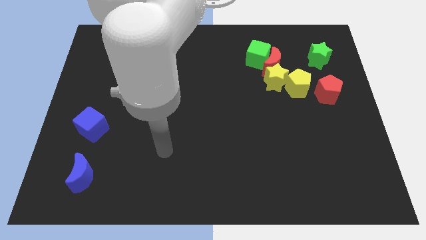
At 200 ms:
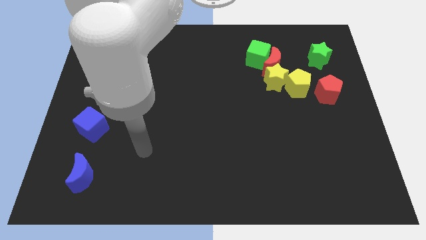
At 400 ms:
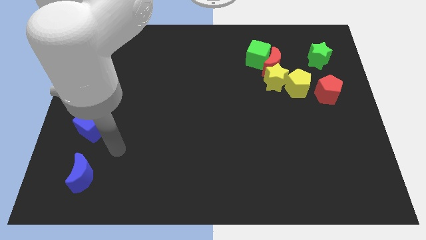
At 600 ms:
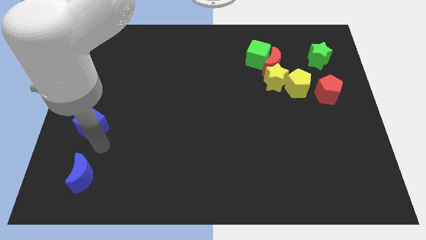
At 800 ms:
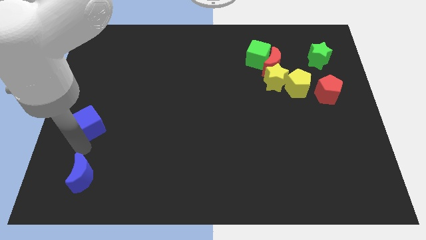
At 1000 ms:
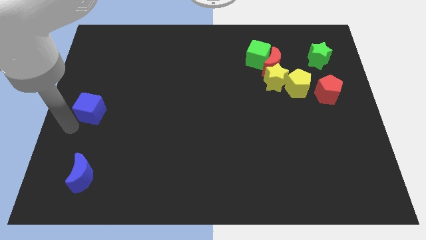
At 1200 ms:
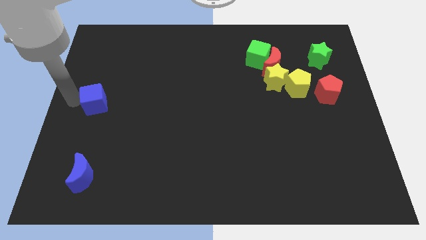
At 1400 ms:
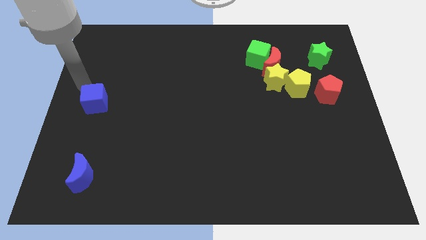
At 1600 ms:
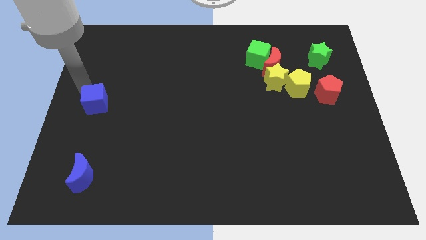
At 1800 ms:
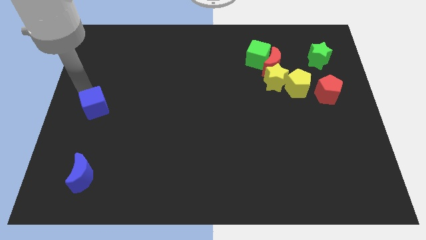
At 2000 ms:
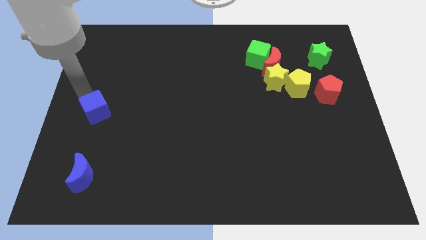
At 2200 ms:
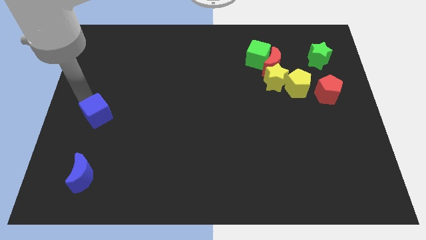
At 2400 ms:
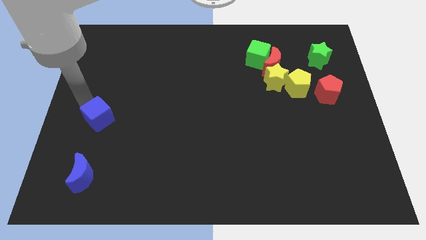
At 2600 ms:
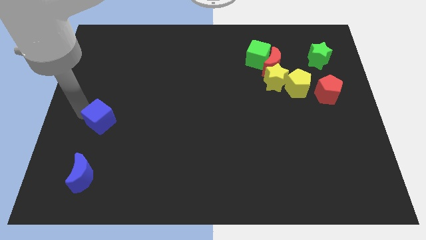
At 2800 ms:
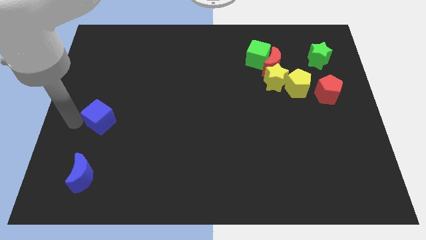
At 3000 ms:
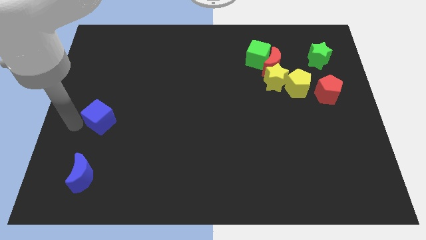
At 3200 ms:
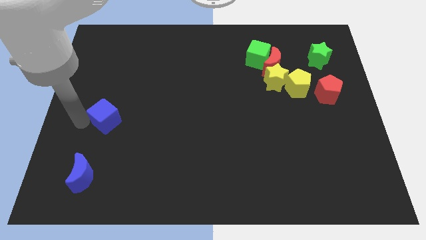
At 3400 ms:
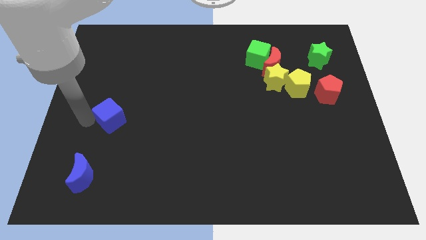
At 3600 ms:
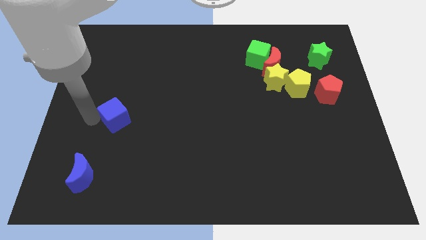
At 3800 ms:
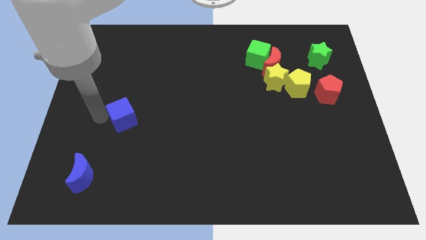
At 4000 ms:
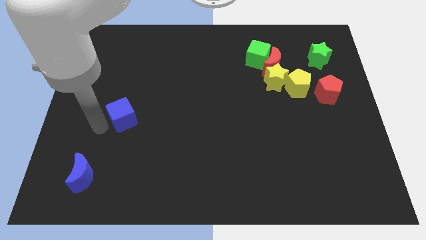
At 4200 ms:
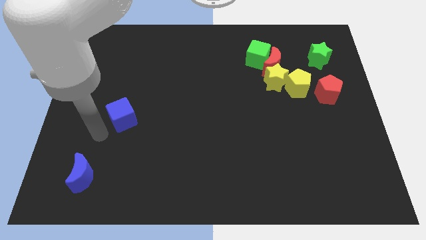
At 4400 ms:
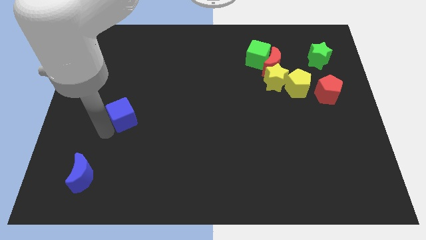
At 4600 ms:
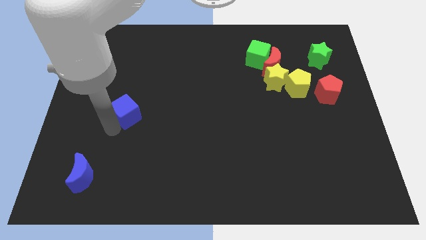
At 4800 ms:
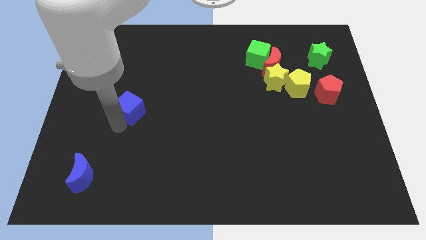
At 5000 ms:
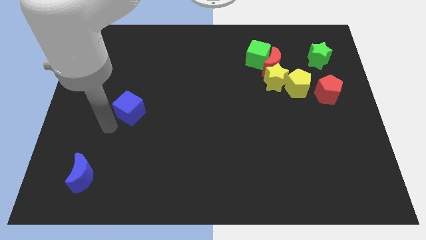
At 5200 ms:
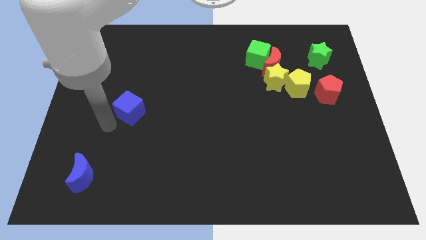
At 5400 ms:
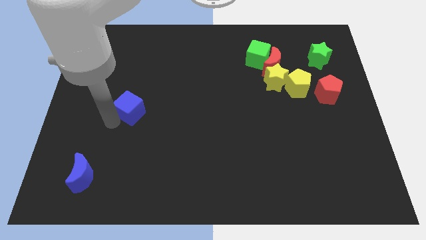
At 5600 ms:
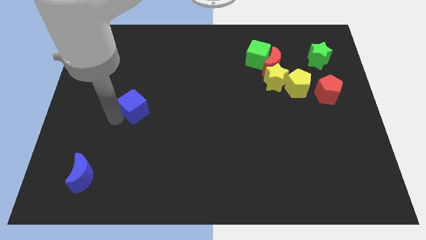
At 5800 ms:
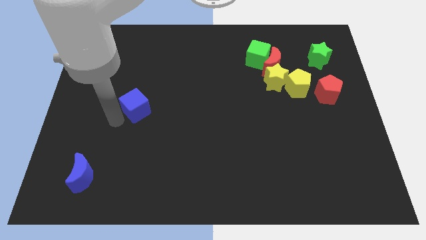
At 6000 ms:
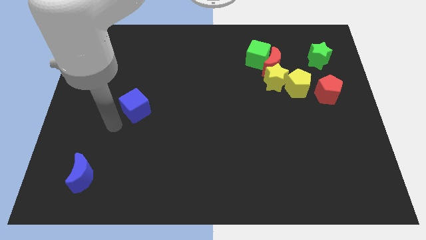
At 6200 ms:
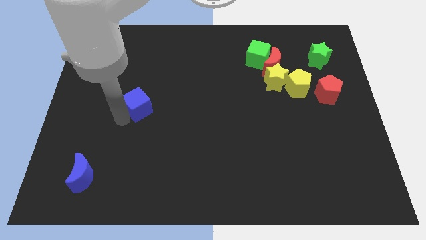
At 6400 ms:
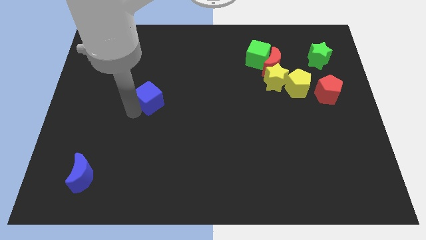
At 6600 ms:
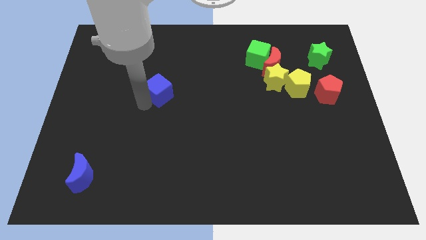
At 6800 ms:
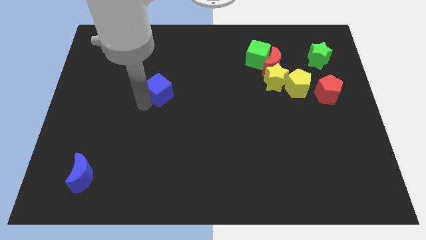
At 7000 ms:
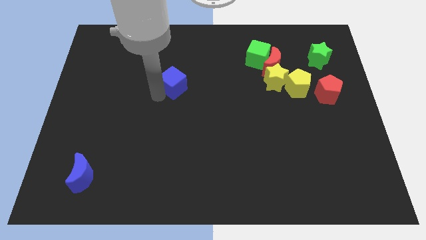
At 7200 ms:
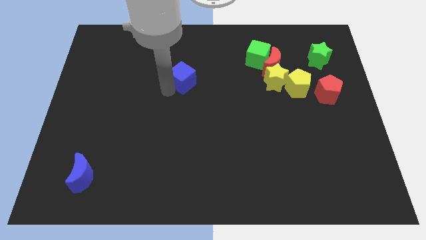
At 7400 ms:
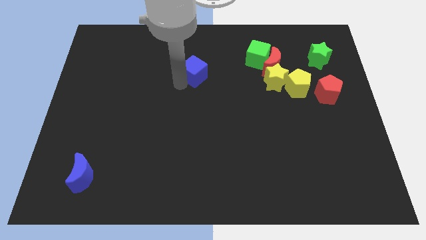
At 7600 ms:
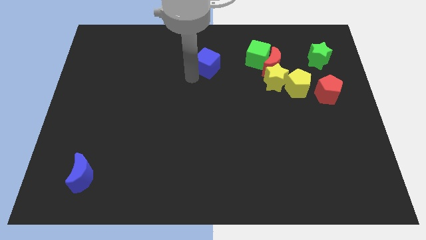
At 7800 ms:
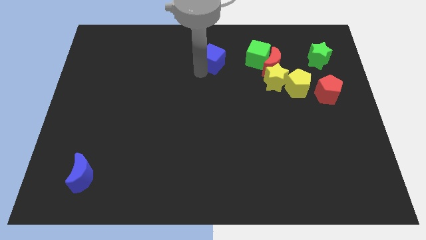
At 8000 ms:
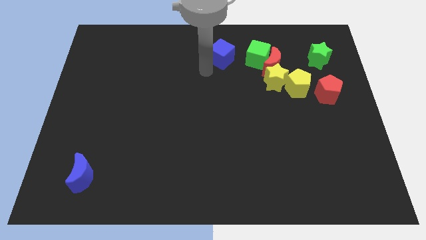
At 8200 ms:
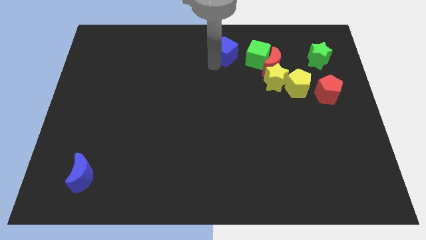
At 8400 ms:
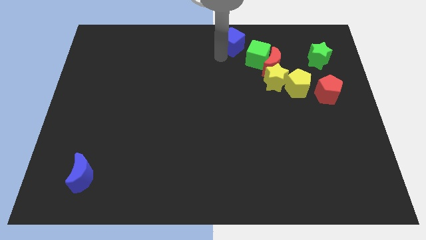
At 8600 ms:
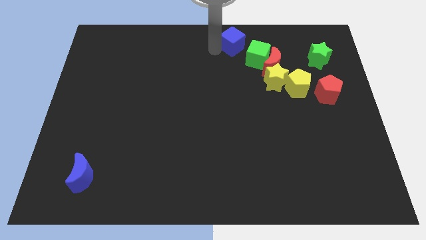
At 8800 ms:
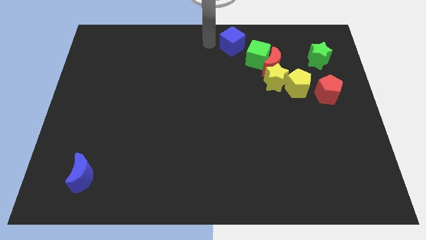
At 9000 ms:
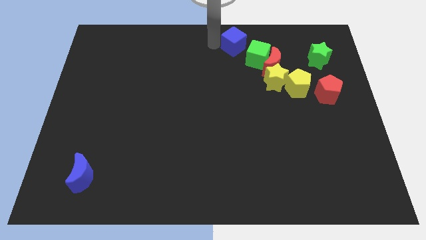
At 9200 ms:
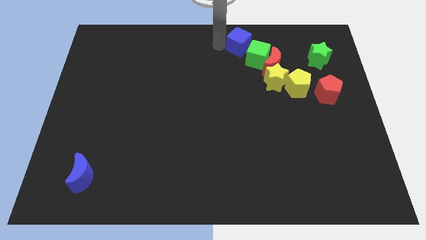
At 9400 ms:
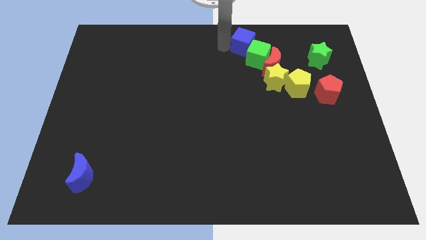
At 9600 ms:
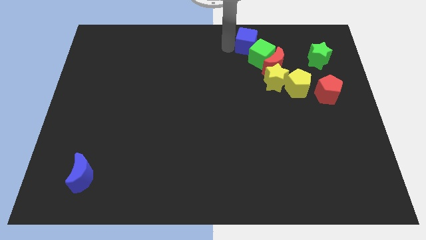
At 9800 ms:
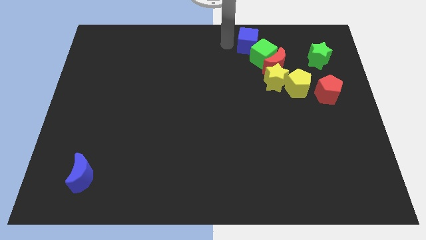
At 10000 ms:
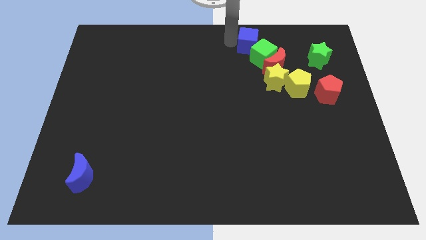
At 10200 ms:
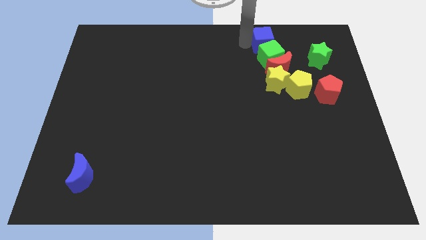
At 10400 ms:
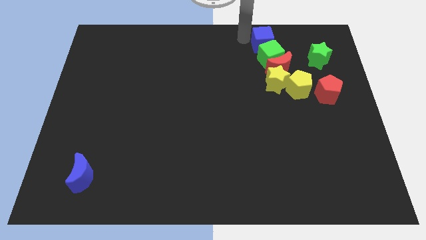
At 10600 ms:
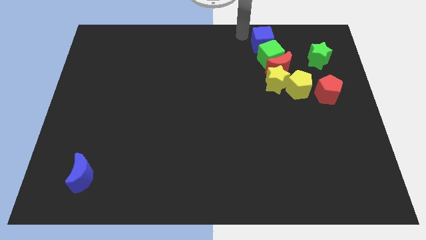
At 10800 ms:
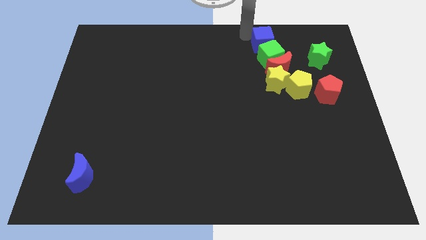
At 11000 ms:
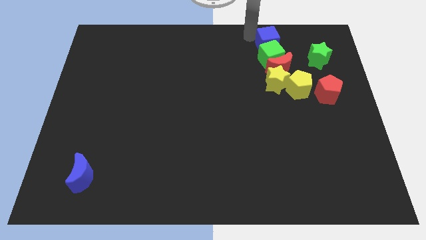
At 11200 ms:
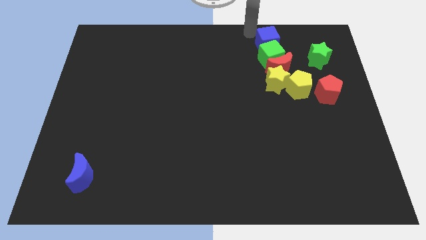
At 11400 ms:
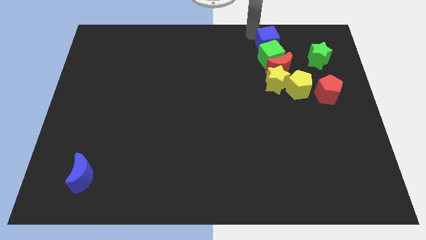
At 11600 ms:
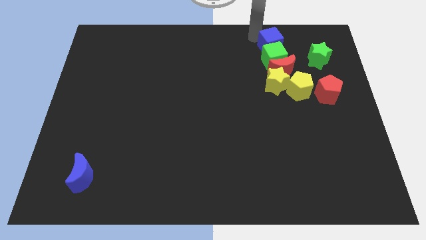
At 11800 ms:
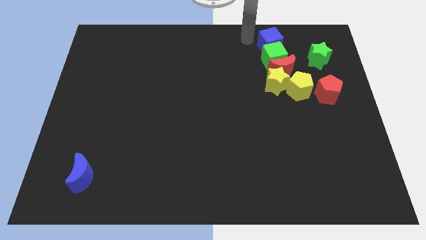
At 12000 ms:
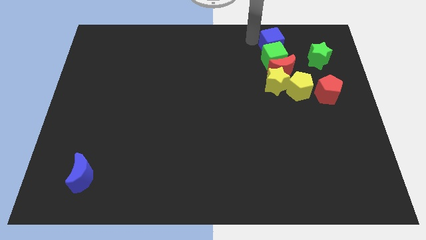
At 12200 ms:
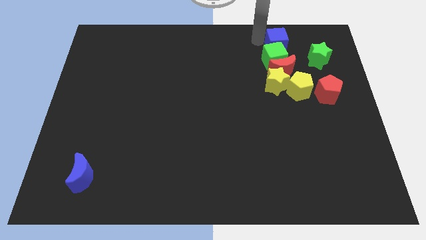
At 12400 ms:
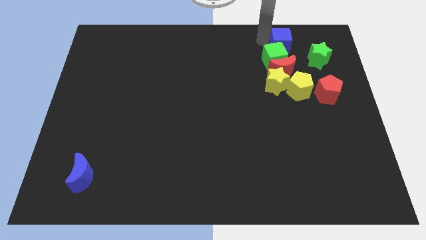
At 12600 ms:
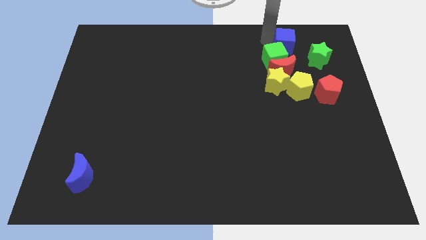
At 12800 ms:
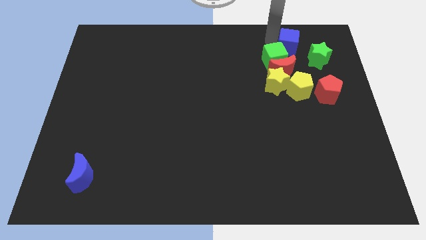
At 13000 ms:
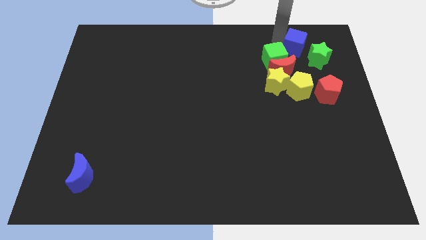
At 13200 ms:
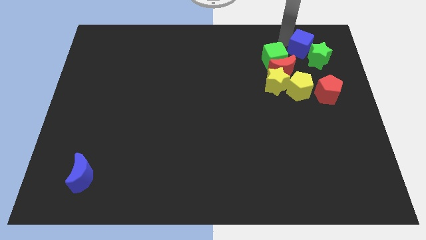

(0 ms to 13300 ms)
slide the blue cube towards the green star

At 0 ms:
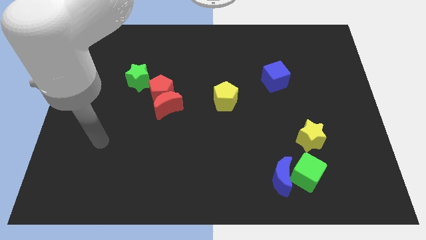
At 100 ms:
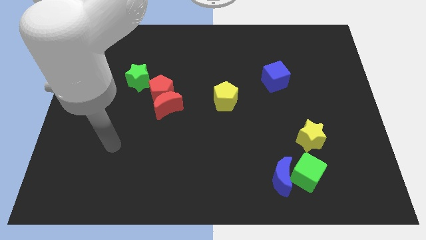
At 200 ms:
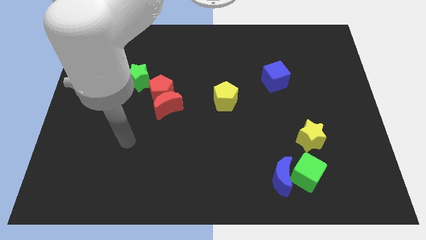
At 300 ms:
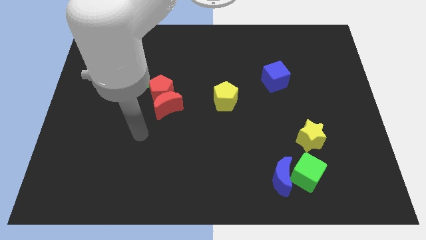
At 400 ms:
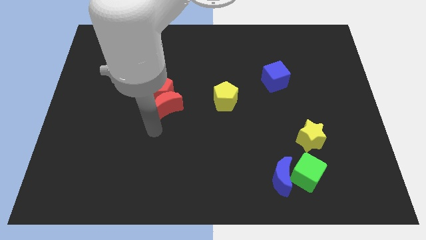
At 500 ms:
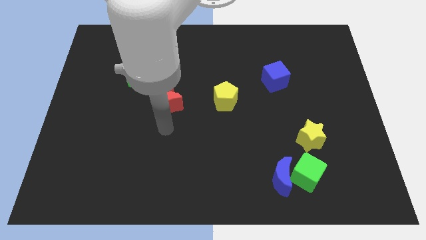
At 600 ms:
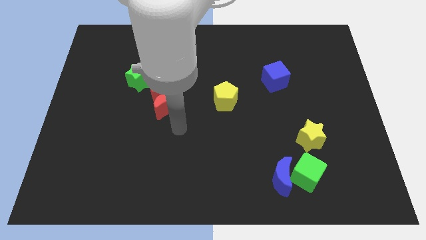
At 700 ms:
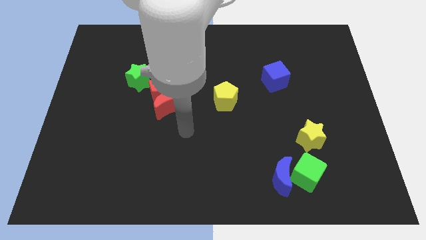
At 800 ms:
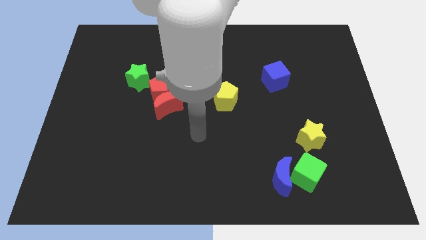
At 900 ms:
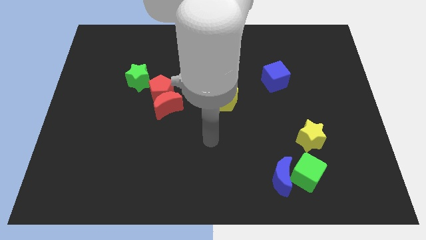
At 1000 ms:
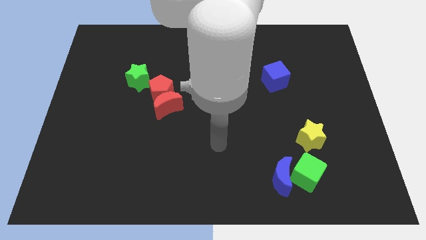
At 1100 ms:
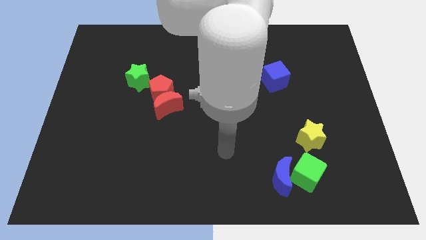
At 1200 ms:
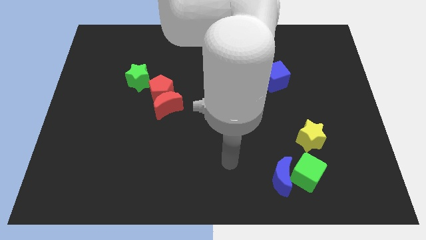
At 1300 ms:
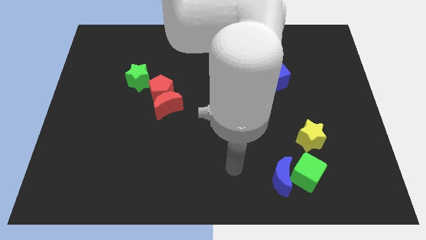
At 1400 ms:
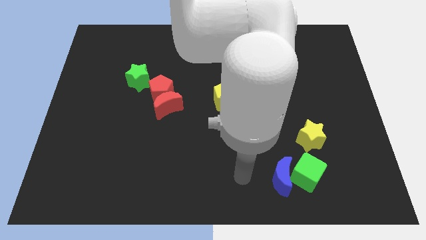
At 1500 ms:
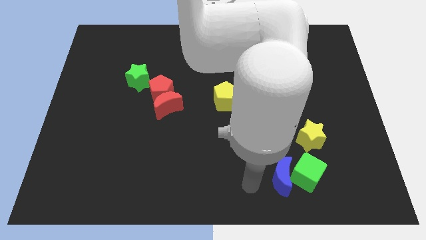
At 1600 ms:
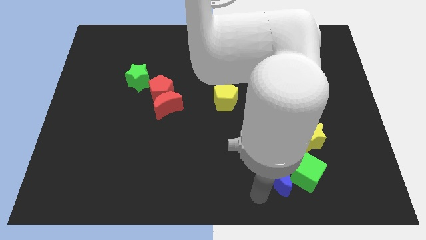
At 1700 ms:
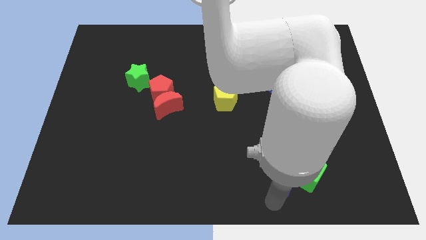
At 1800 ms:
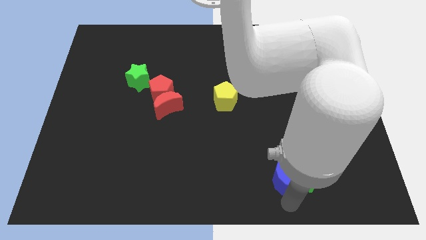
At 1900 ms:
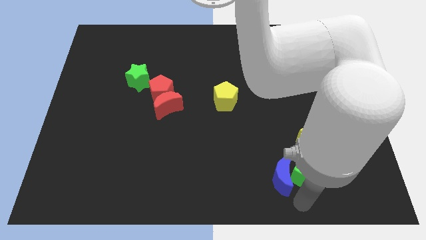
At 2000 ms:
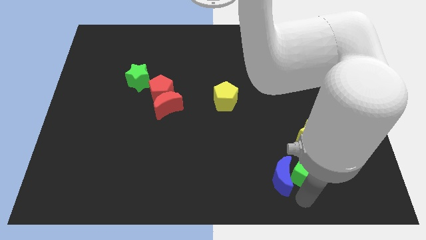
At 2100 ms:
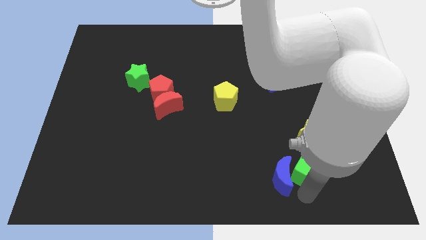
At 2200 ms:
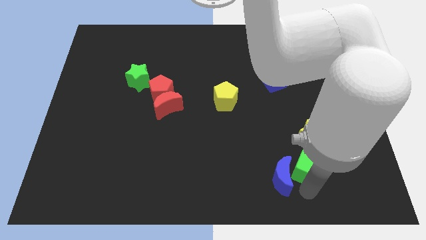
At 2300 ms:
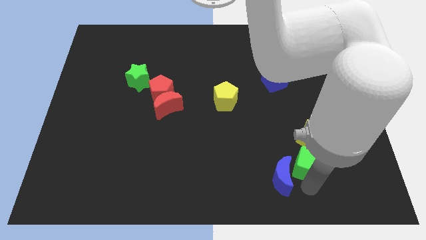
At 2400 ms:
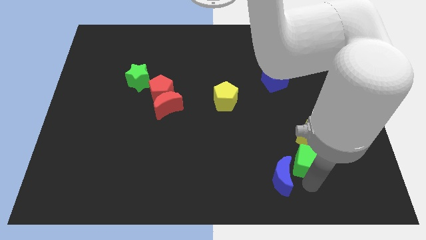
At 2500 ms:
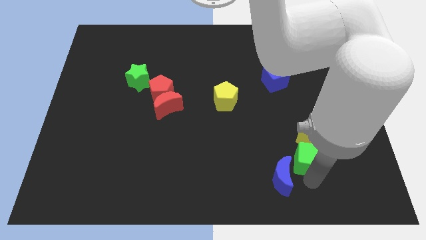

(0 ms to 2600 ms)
move the green cube towards the yellow star
